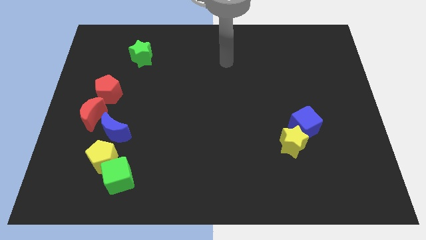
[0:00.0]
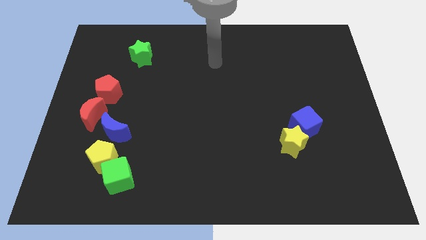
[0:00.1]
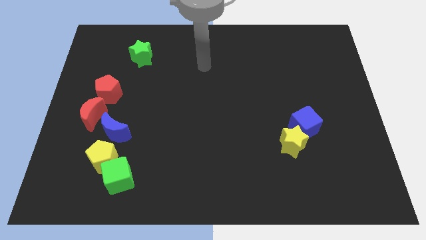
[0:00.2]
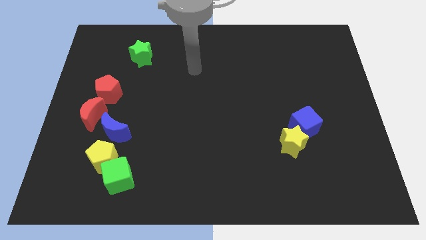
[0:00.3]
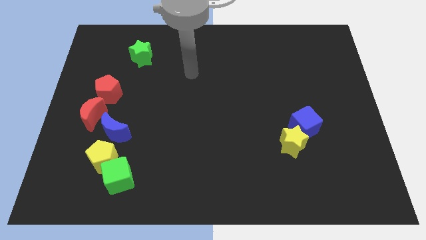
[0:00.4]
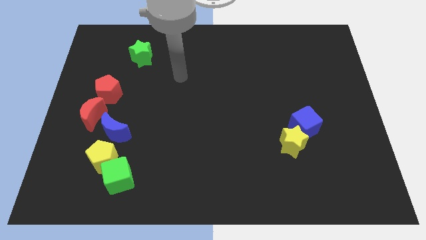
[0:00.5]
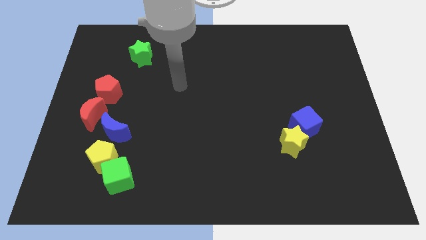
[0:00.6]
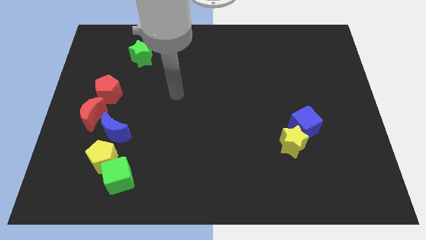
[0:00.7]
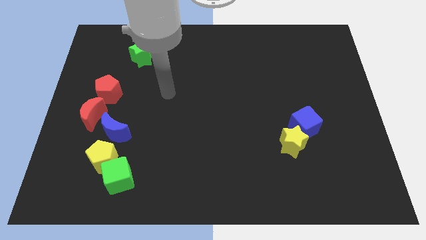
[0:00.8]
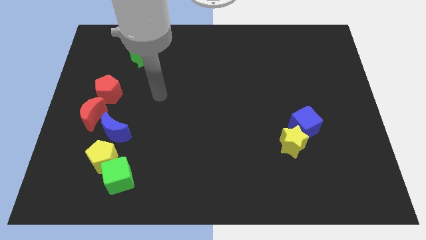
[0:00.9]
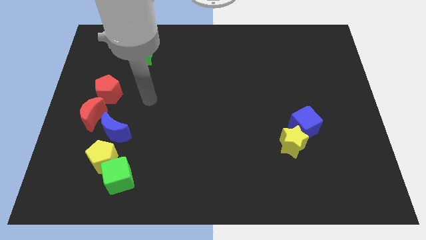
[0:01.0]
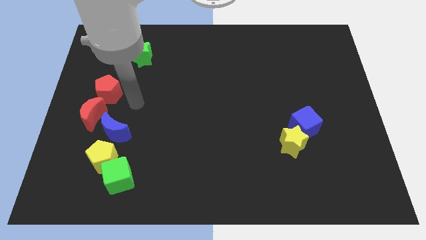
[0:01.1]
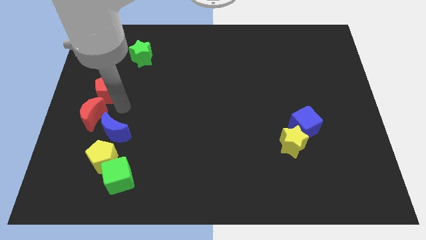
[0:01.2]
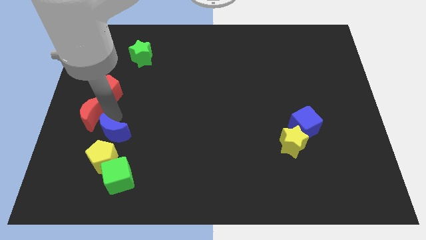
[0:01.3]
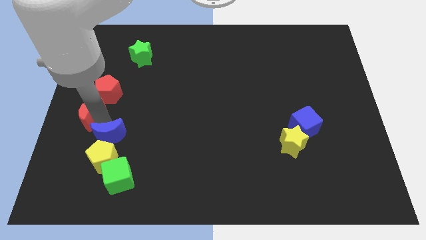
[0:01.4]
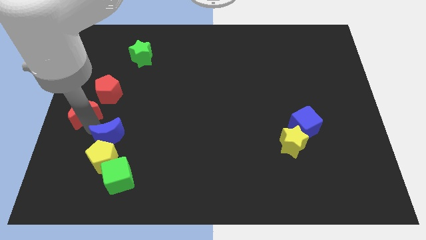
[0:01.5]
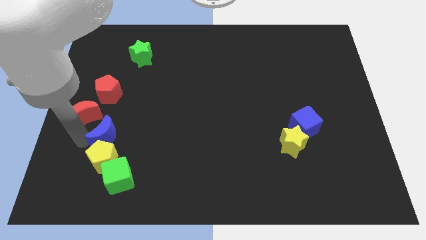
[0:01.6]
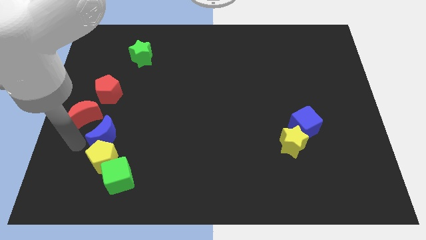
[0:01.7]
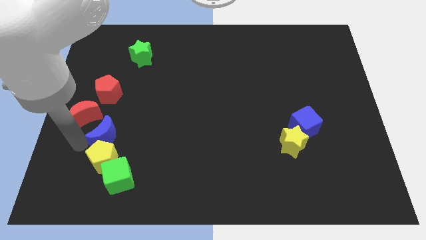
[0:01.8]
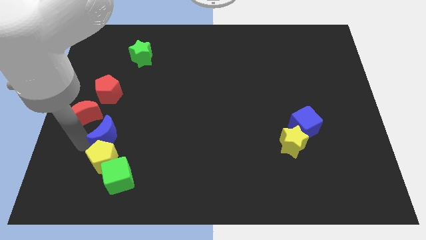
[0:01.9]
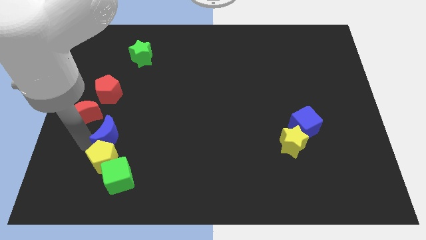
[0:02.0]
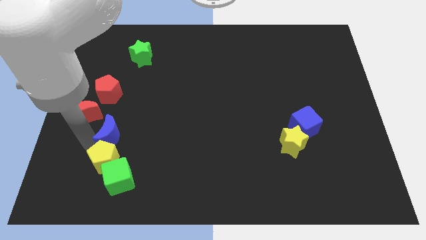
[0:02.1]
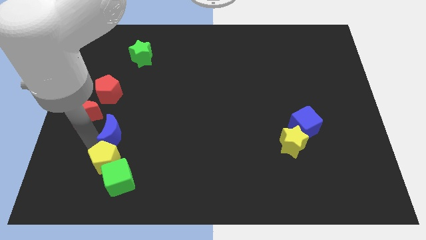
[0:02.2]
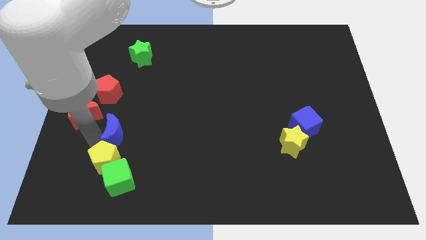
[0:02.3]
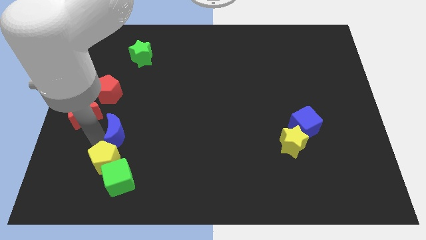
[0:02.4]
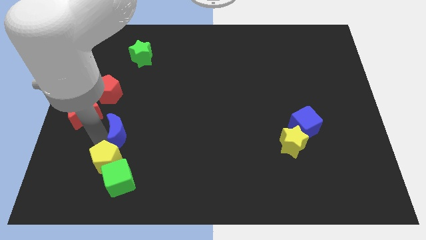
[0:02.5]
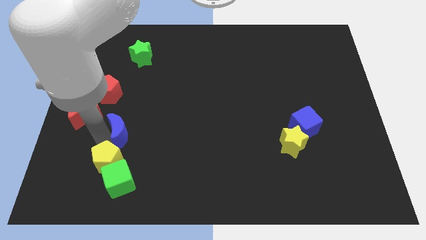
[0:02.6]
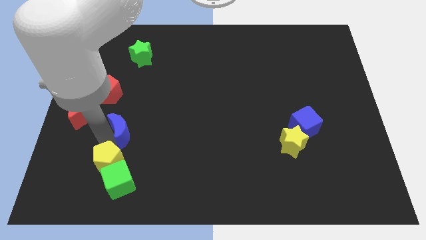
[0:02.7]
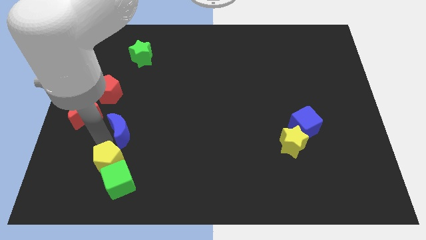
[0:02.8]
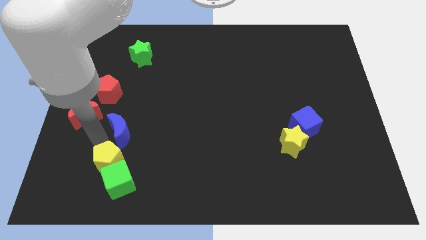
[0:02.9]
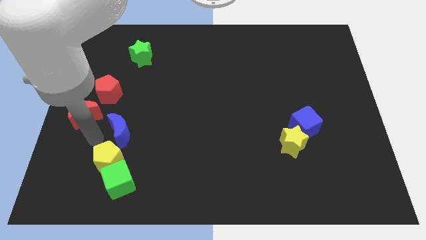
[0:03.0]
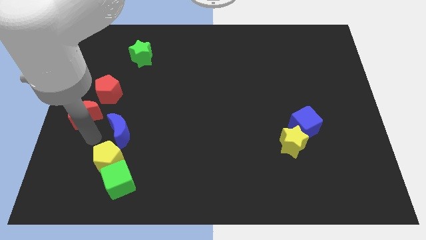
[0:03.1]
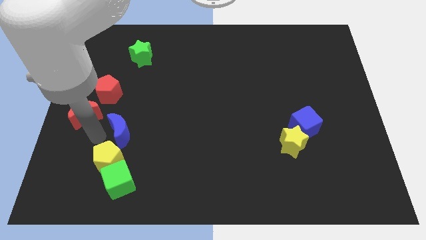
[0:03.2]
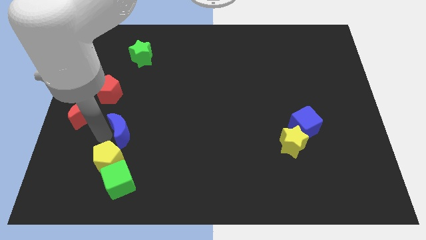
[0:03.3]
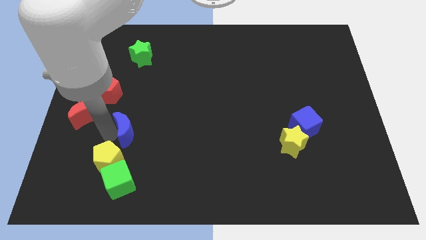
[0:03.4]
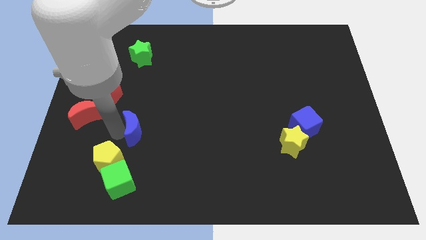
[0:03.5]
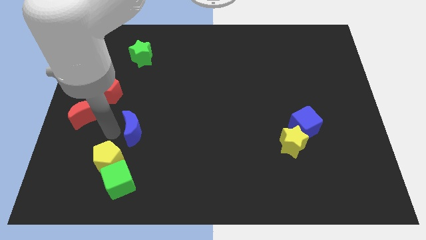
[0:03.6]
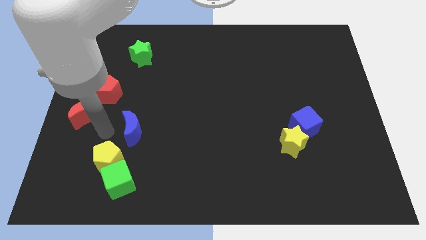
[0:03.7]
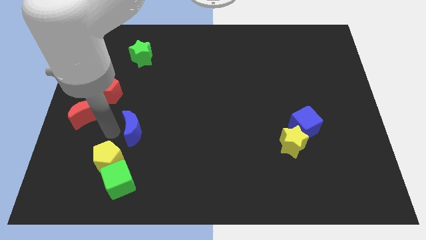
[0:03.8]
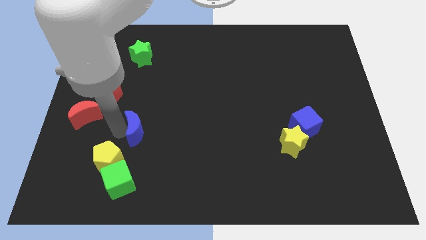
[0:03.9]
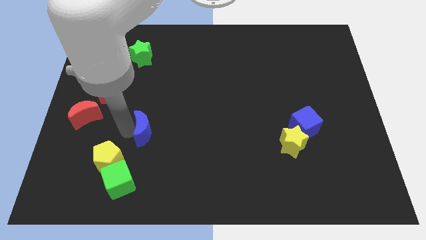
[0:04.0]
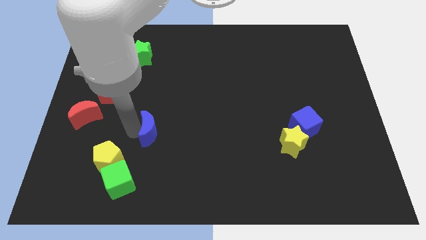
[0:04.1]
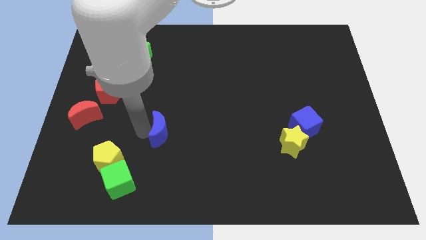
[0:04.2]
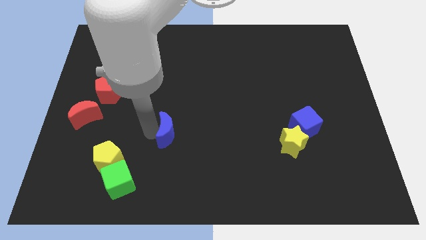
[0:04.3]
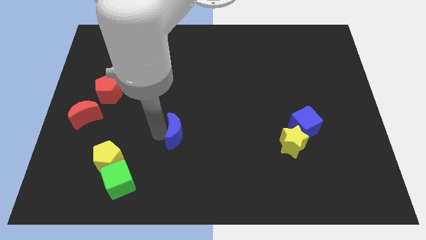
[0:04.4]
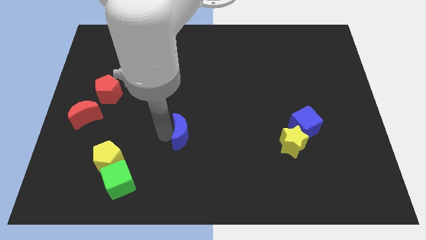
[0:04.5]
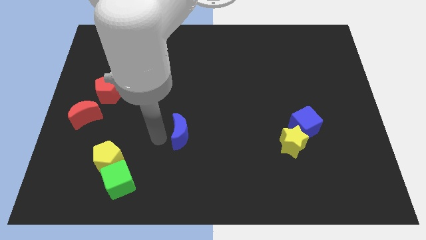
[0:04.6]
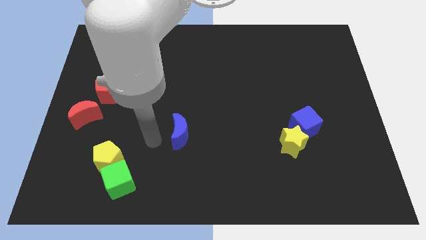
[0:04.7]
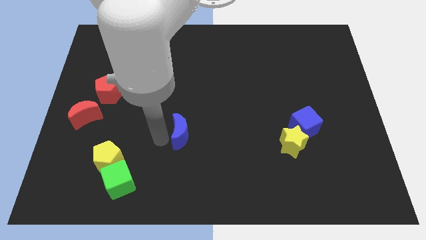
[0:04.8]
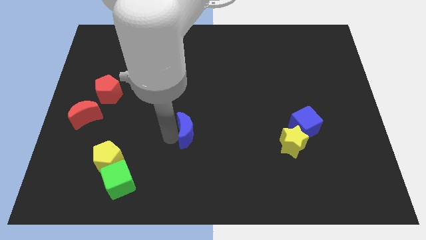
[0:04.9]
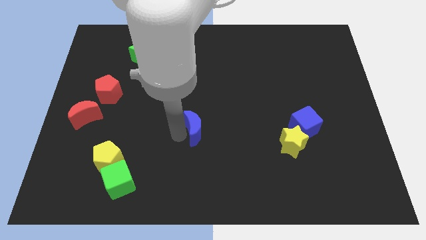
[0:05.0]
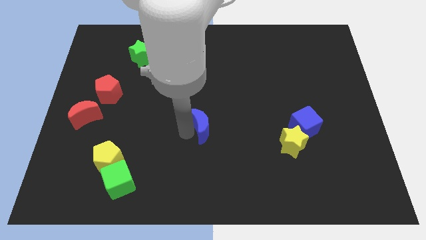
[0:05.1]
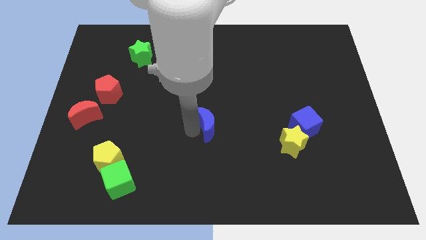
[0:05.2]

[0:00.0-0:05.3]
slide the blue moon to the right

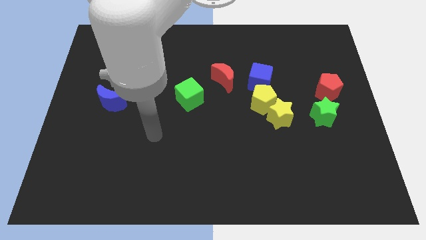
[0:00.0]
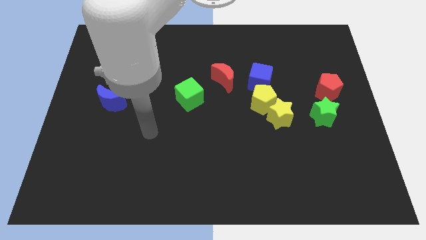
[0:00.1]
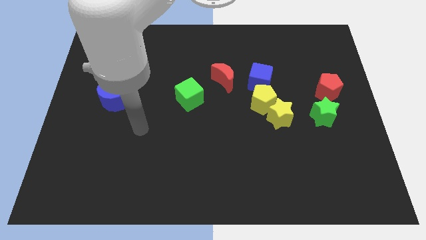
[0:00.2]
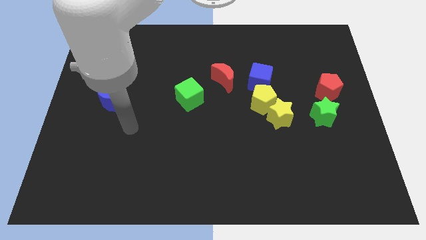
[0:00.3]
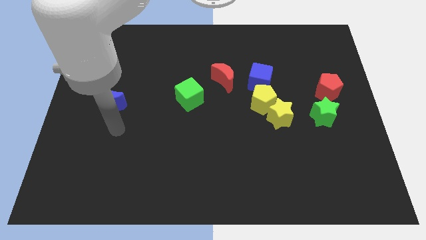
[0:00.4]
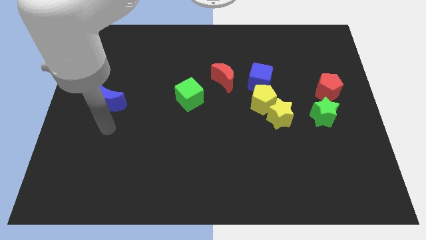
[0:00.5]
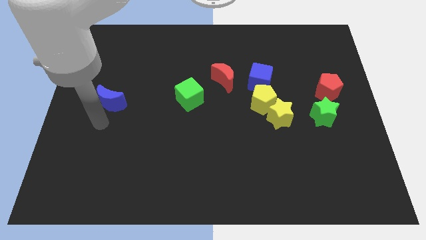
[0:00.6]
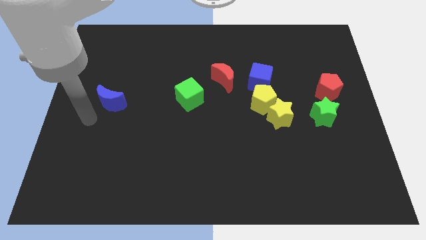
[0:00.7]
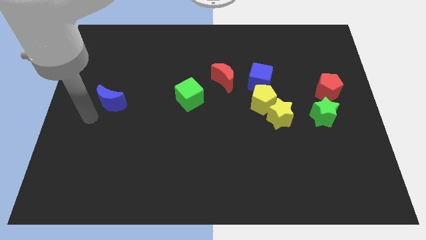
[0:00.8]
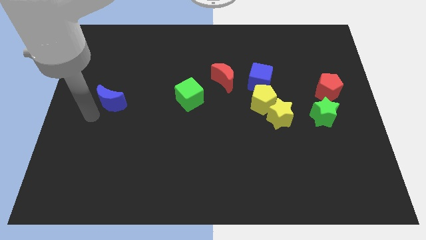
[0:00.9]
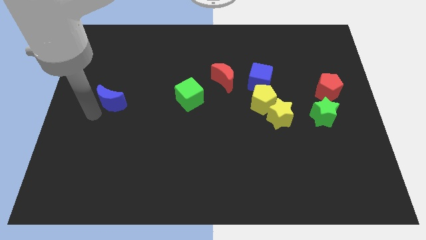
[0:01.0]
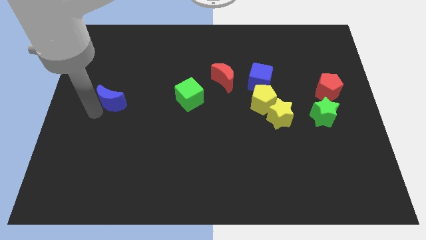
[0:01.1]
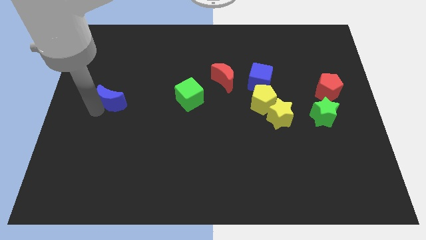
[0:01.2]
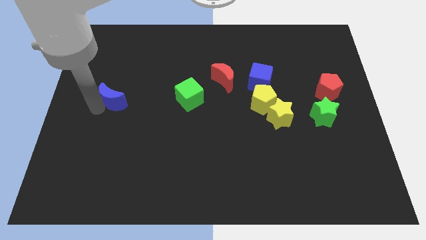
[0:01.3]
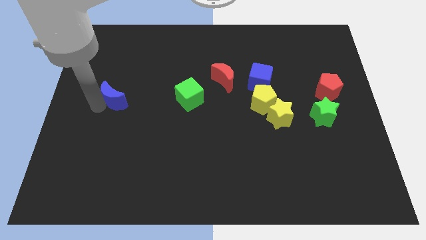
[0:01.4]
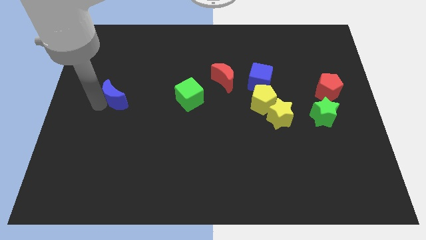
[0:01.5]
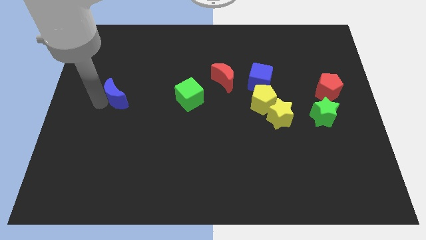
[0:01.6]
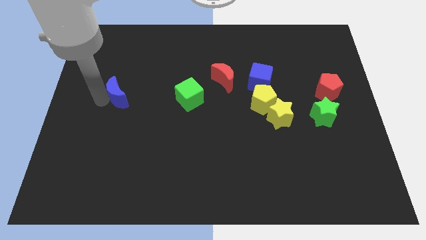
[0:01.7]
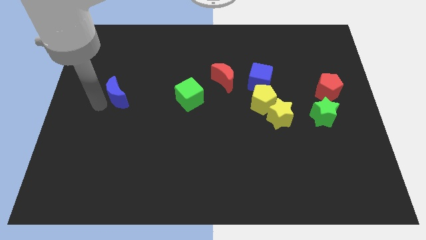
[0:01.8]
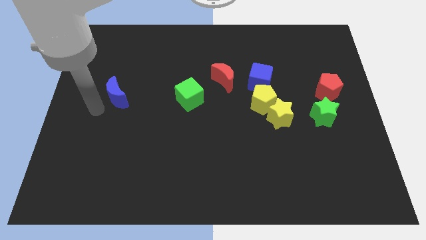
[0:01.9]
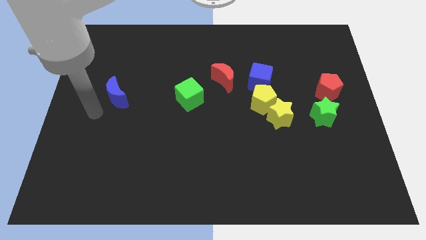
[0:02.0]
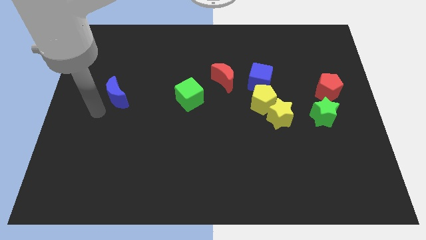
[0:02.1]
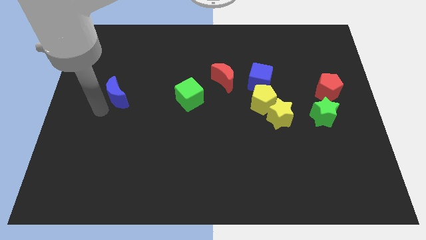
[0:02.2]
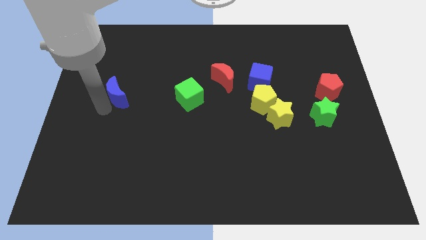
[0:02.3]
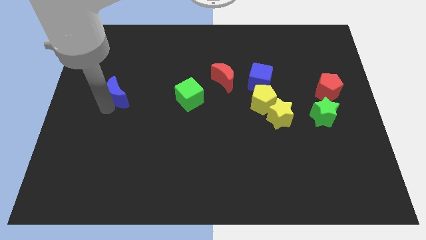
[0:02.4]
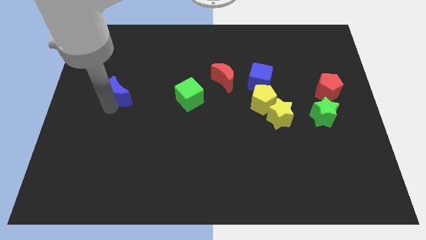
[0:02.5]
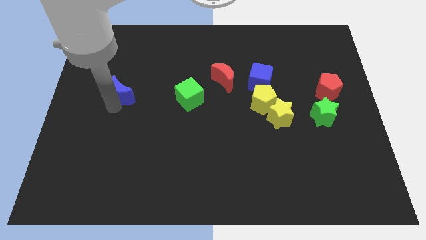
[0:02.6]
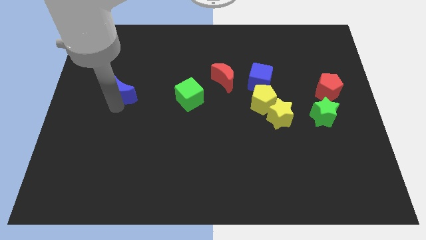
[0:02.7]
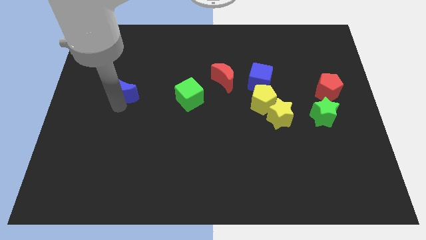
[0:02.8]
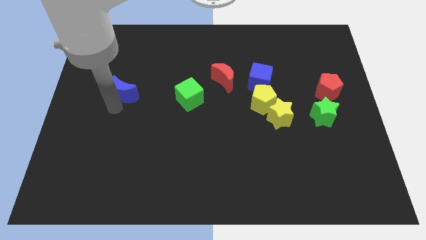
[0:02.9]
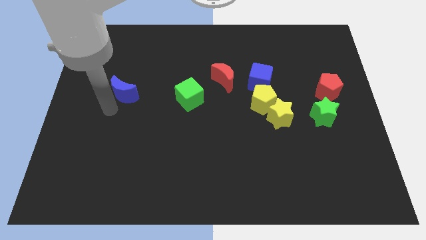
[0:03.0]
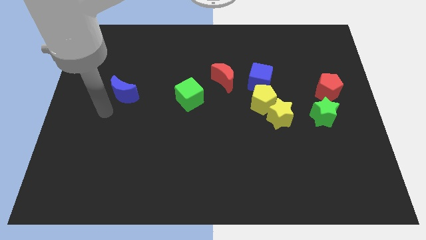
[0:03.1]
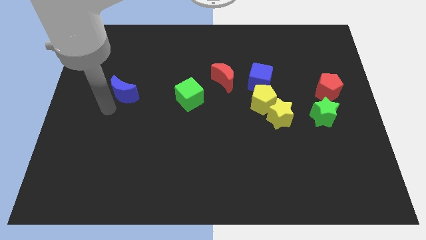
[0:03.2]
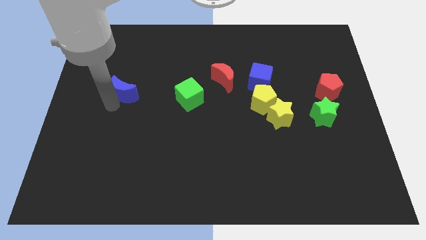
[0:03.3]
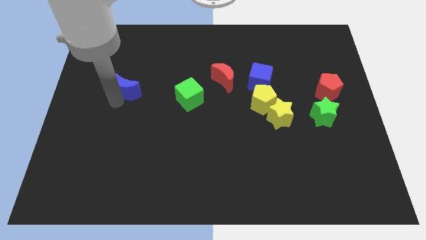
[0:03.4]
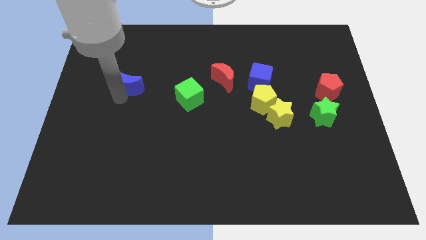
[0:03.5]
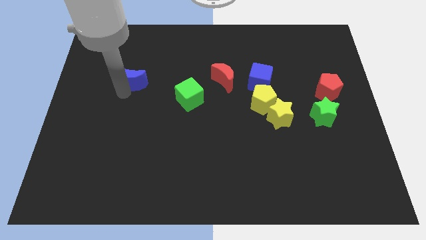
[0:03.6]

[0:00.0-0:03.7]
slide the blue moon slightly up and then right
